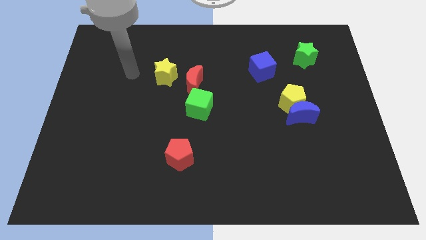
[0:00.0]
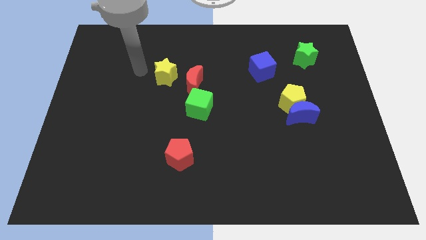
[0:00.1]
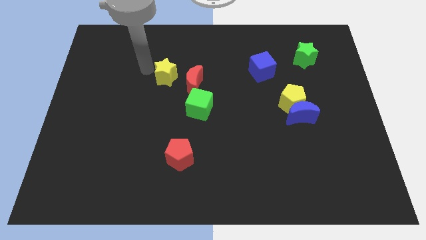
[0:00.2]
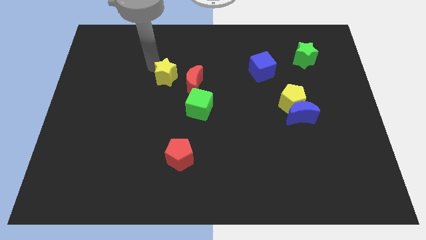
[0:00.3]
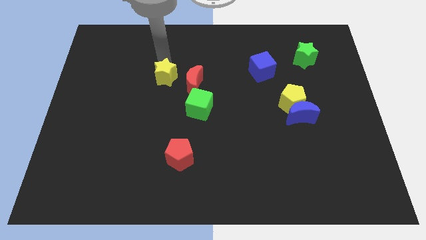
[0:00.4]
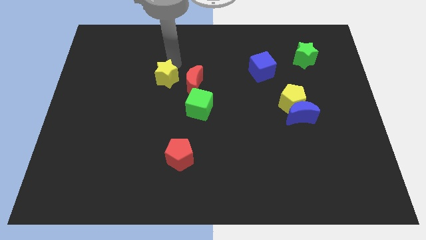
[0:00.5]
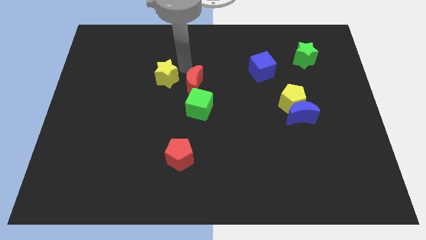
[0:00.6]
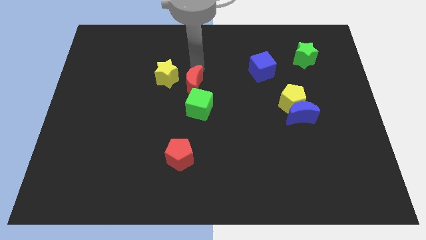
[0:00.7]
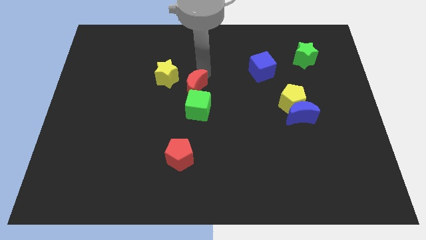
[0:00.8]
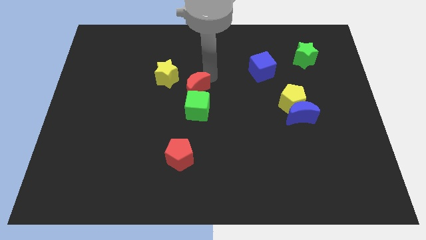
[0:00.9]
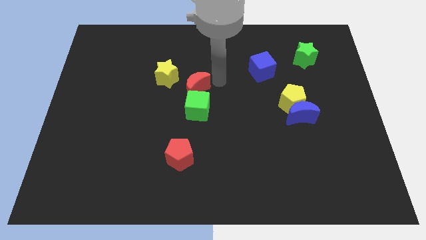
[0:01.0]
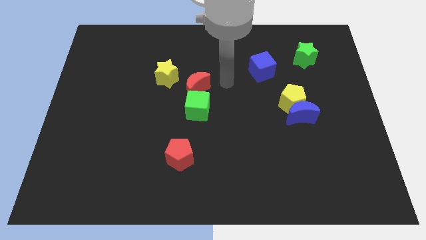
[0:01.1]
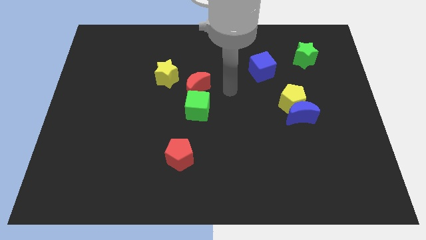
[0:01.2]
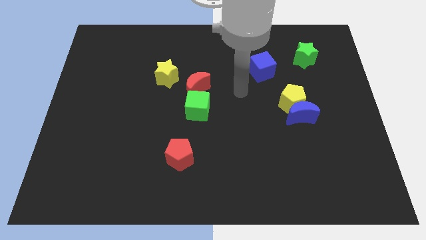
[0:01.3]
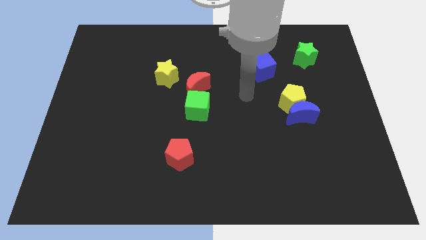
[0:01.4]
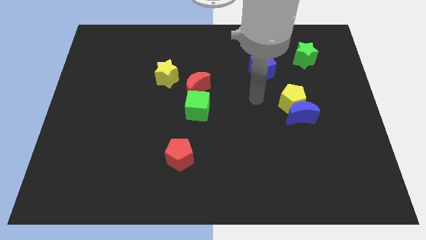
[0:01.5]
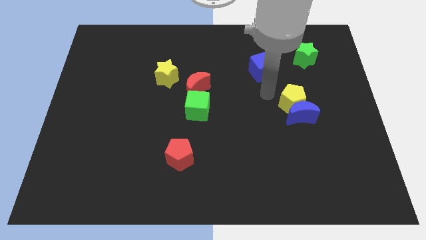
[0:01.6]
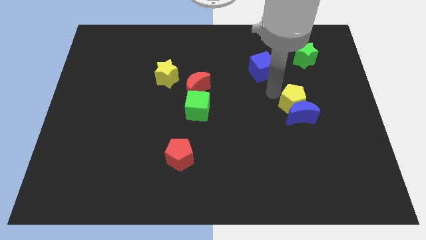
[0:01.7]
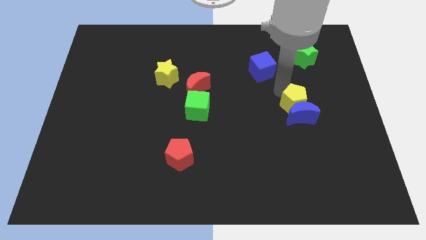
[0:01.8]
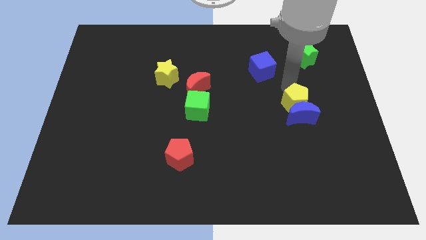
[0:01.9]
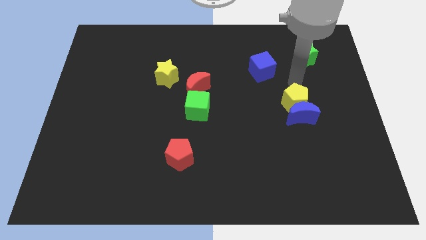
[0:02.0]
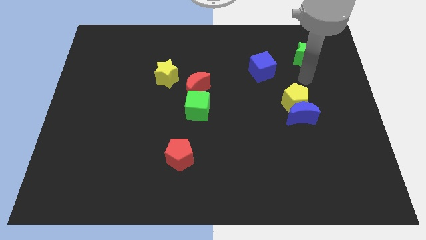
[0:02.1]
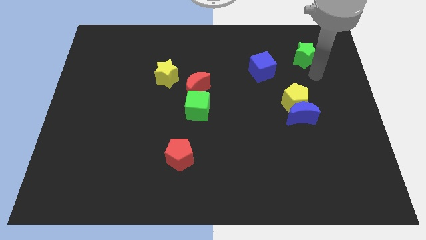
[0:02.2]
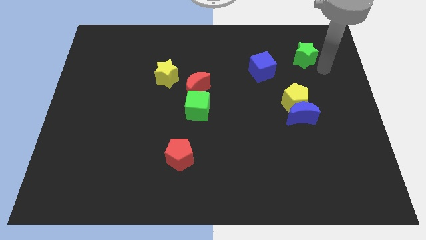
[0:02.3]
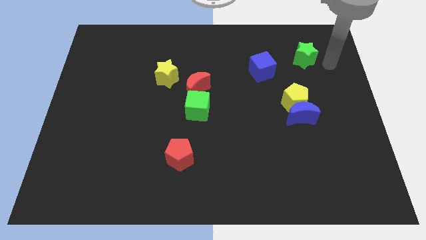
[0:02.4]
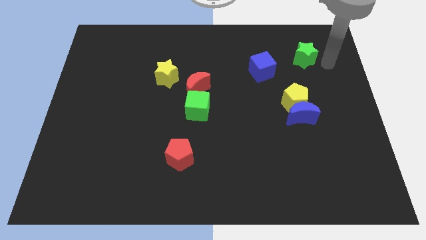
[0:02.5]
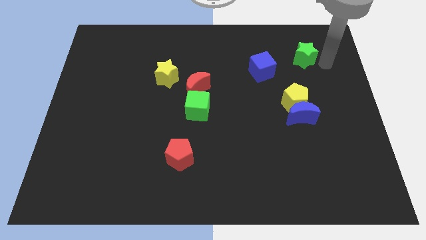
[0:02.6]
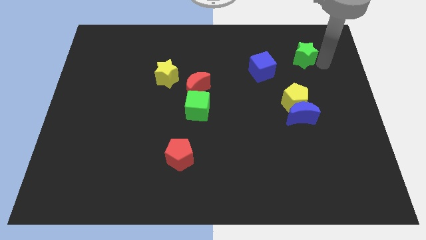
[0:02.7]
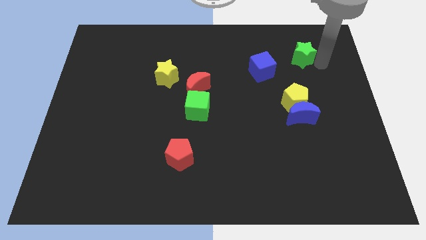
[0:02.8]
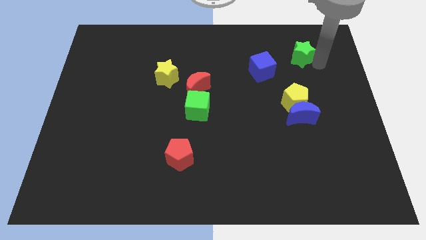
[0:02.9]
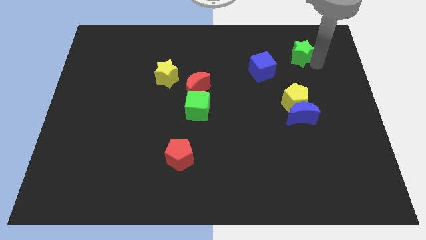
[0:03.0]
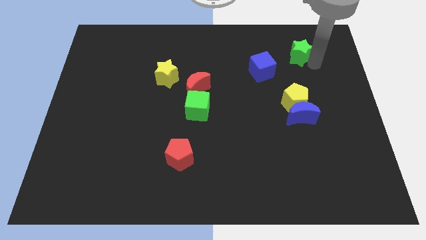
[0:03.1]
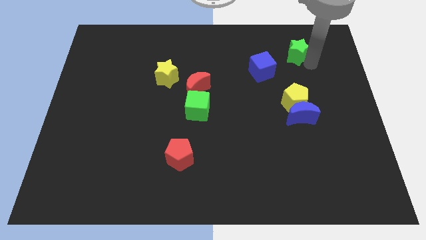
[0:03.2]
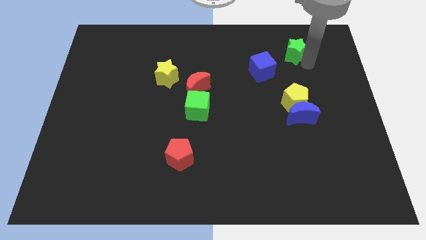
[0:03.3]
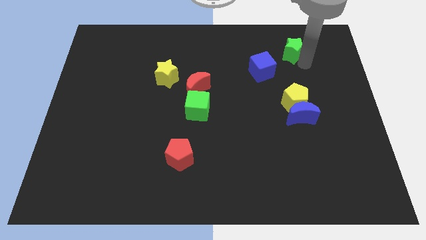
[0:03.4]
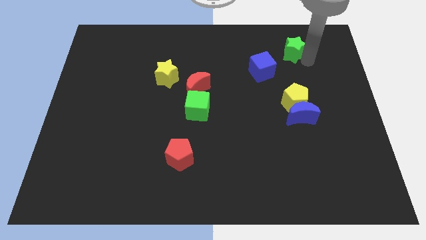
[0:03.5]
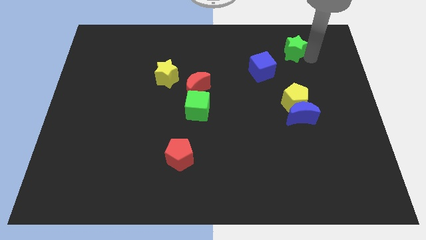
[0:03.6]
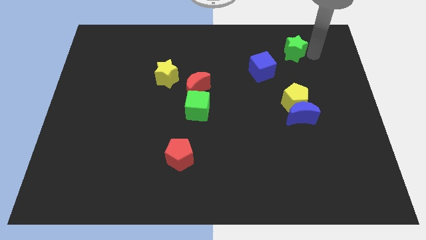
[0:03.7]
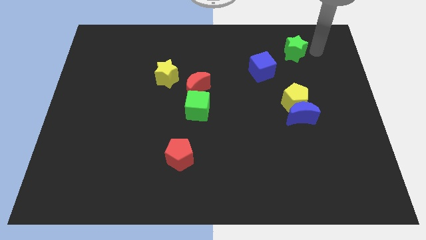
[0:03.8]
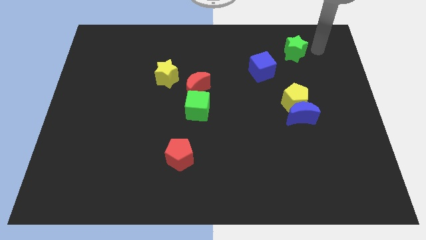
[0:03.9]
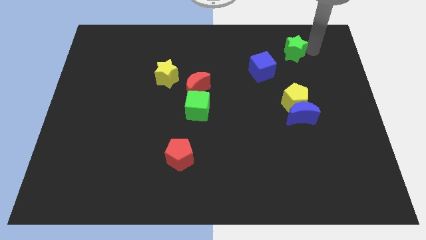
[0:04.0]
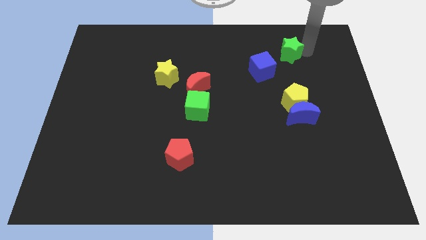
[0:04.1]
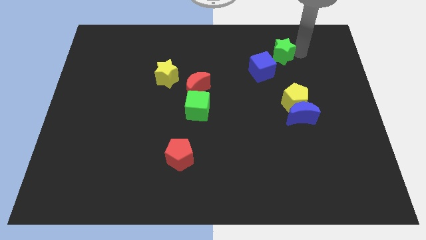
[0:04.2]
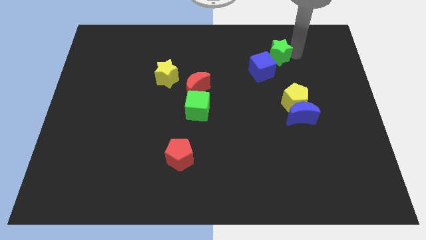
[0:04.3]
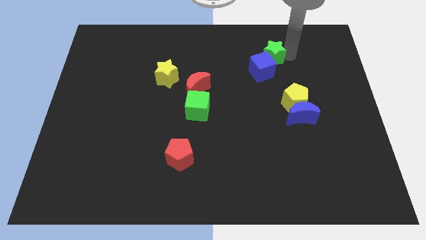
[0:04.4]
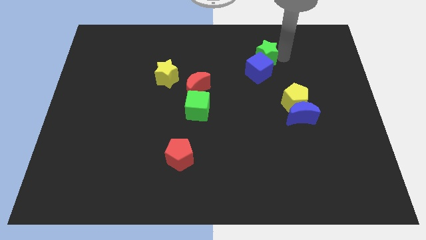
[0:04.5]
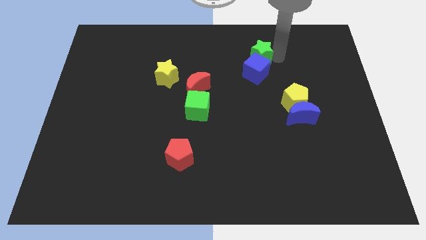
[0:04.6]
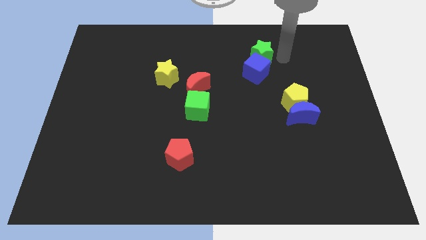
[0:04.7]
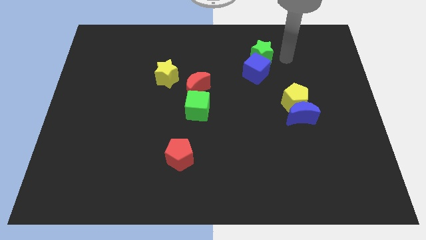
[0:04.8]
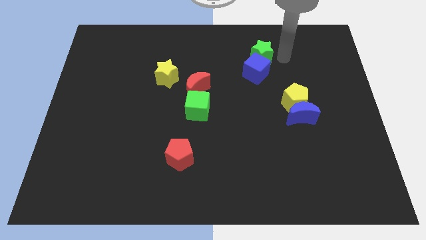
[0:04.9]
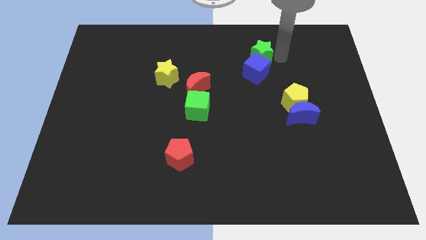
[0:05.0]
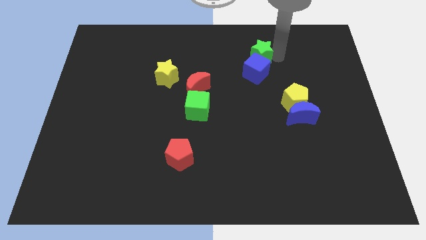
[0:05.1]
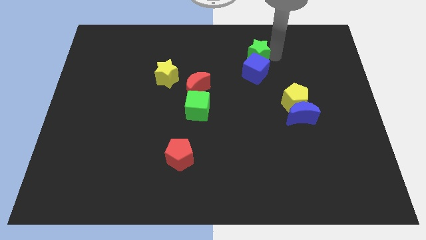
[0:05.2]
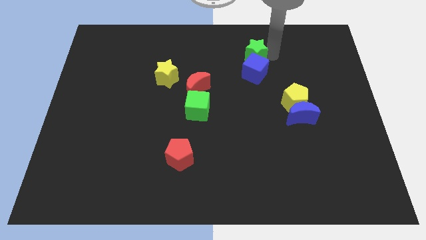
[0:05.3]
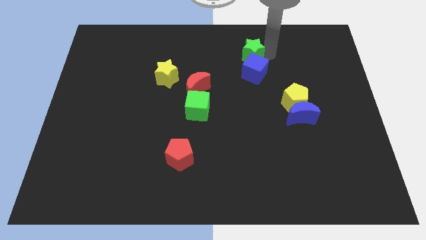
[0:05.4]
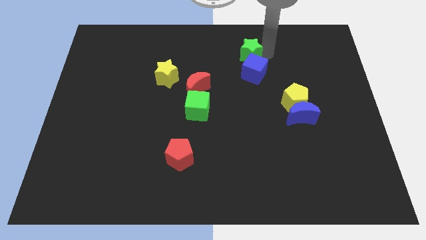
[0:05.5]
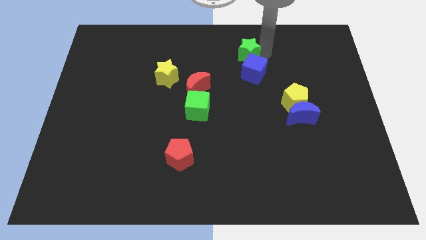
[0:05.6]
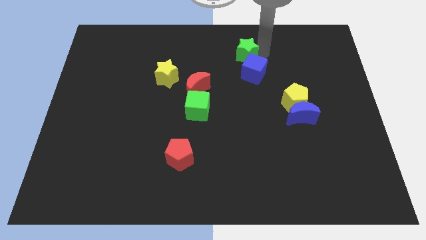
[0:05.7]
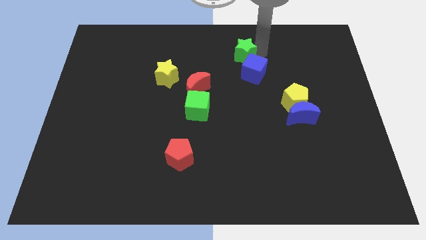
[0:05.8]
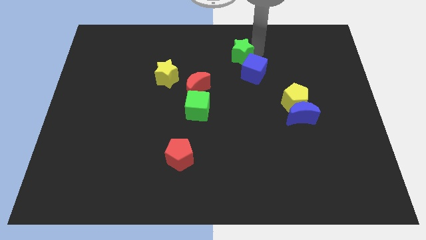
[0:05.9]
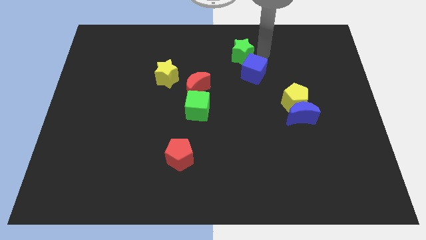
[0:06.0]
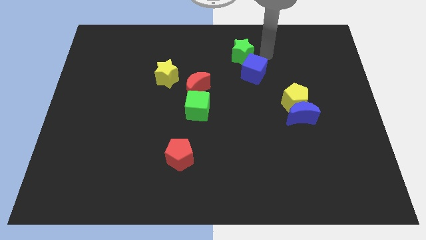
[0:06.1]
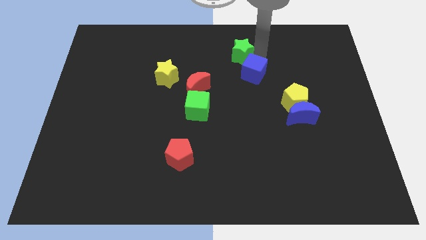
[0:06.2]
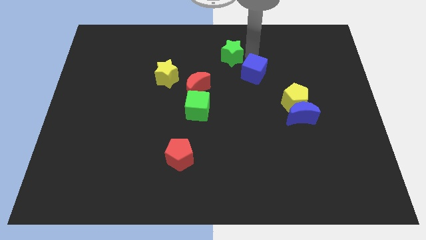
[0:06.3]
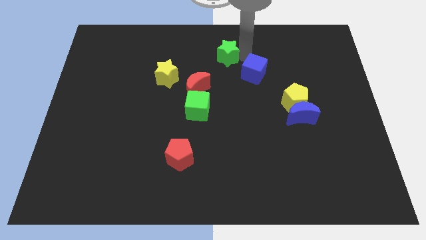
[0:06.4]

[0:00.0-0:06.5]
push the green star to the left

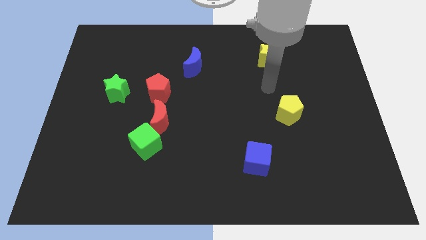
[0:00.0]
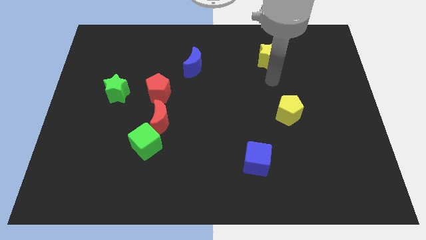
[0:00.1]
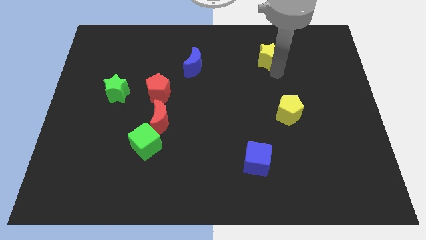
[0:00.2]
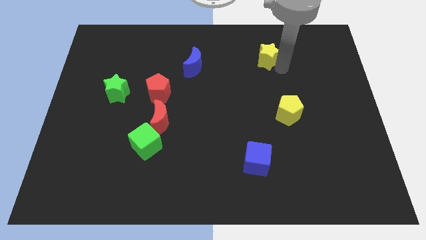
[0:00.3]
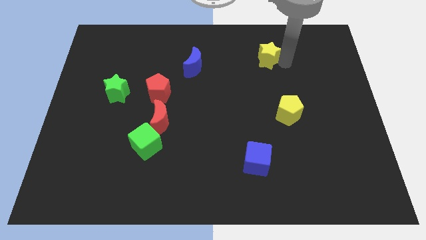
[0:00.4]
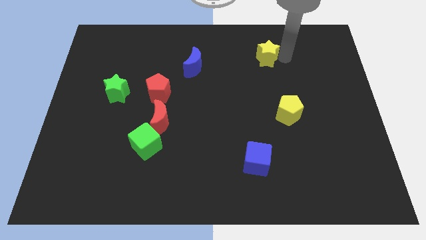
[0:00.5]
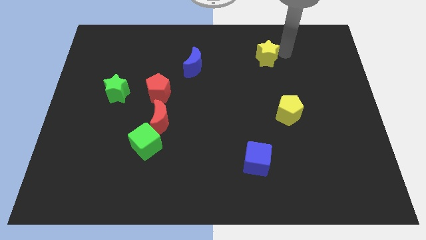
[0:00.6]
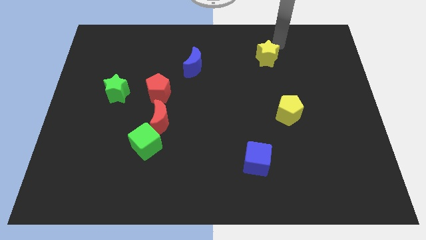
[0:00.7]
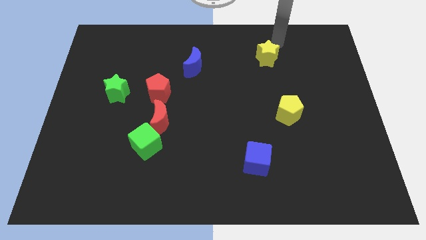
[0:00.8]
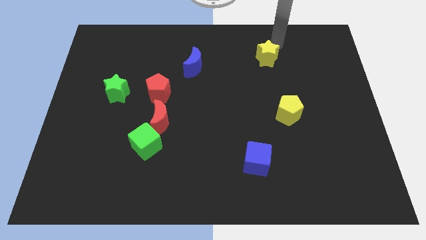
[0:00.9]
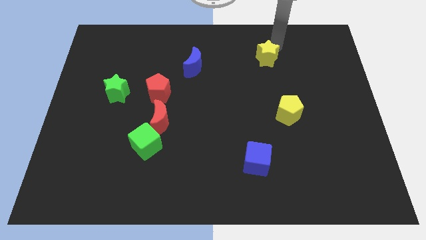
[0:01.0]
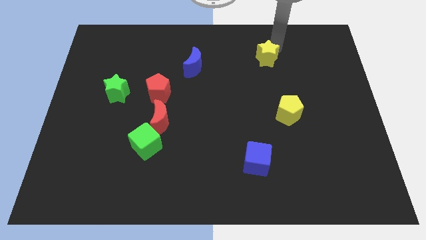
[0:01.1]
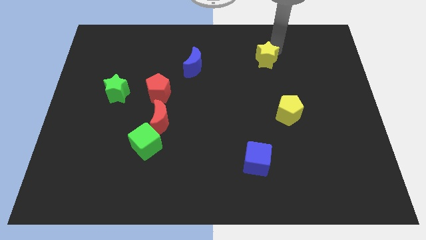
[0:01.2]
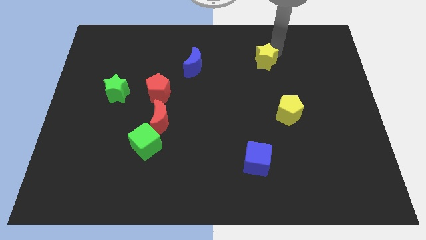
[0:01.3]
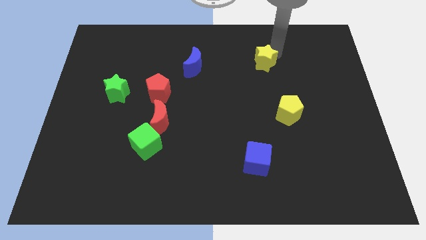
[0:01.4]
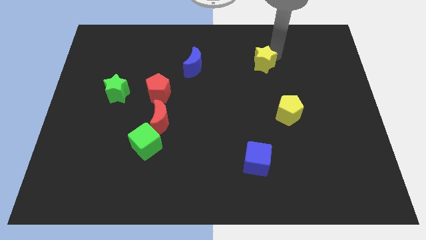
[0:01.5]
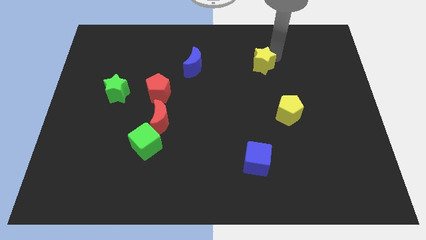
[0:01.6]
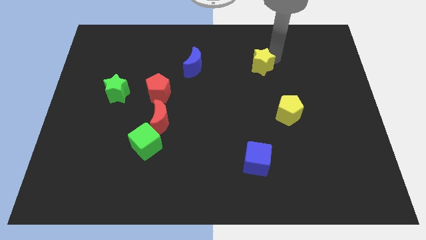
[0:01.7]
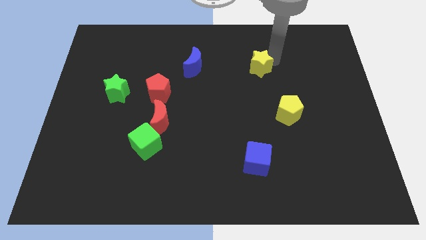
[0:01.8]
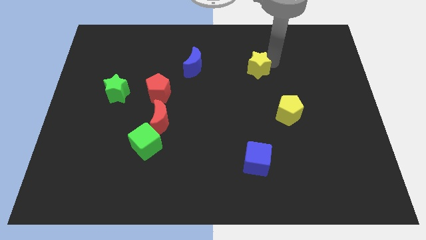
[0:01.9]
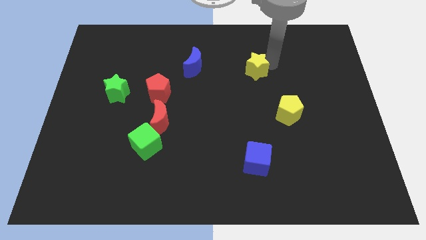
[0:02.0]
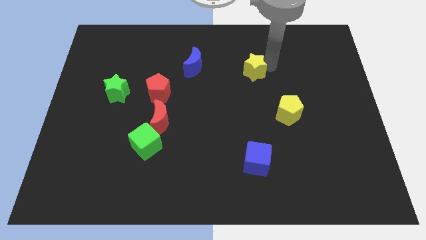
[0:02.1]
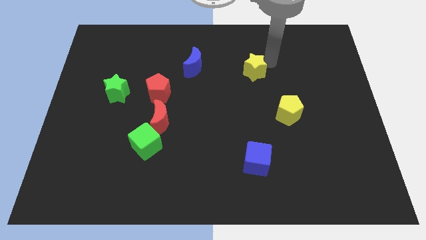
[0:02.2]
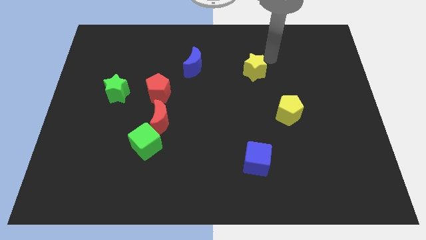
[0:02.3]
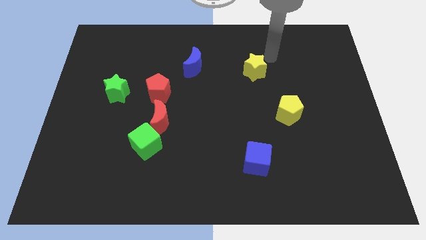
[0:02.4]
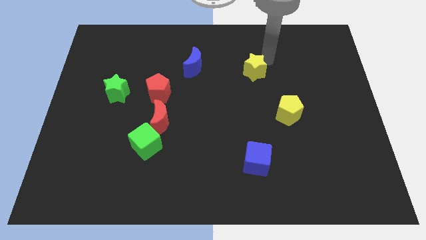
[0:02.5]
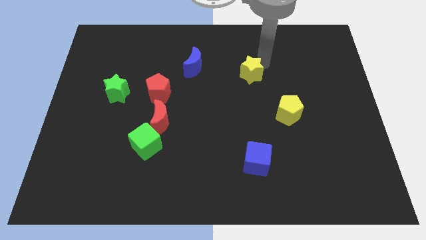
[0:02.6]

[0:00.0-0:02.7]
move the yellow star a bit down and to the left
